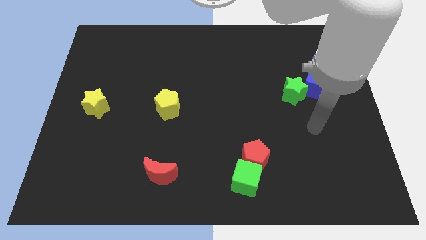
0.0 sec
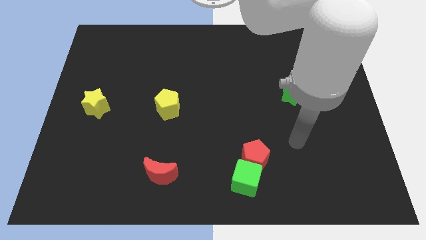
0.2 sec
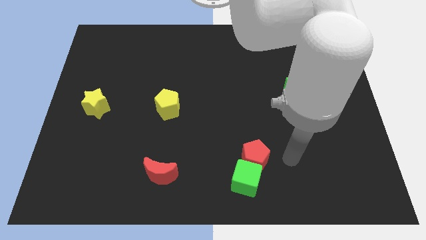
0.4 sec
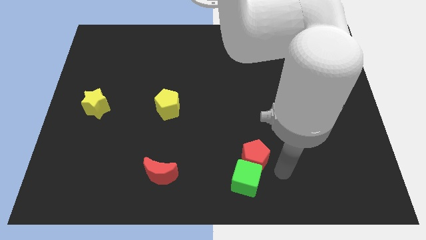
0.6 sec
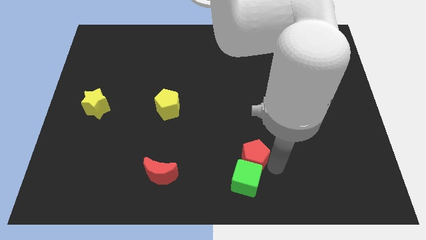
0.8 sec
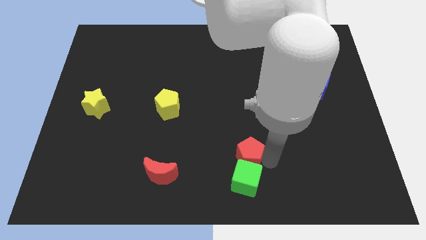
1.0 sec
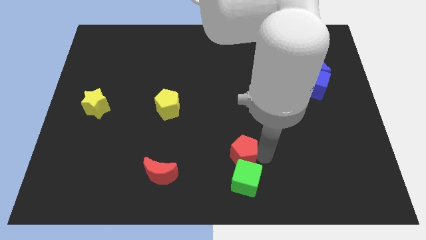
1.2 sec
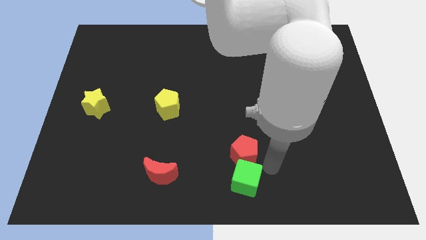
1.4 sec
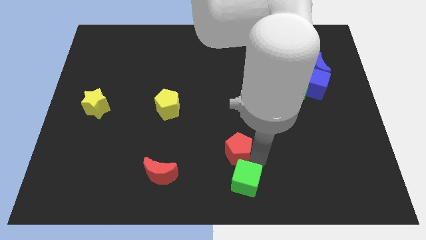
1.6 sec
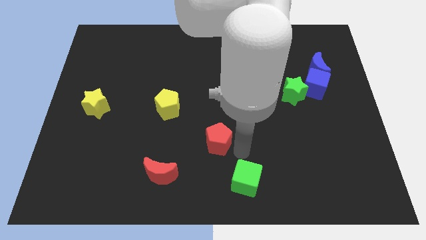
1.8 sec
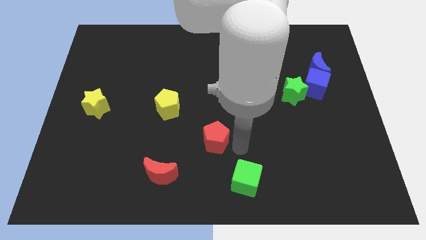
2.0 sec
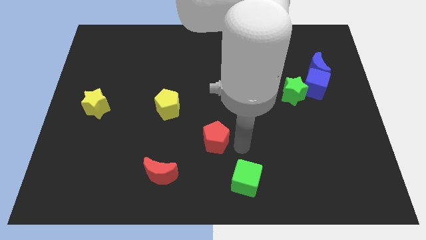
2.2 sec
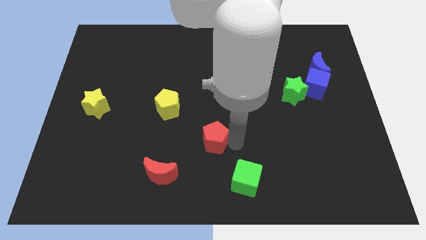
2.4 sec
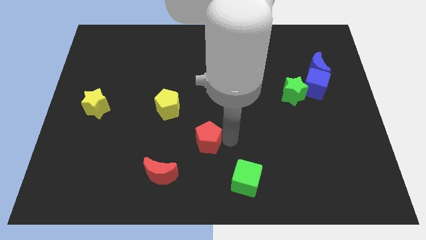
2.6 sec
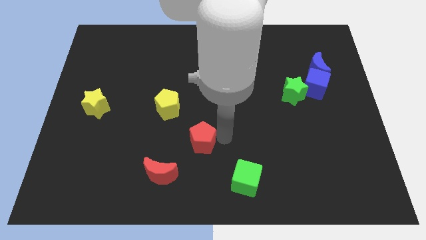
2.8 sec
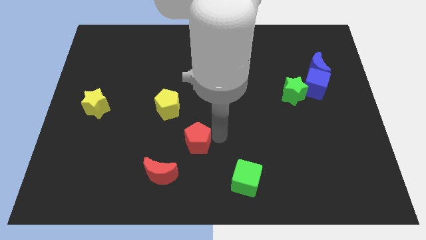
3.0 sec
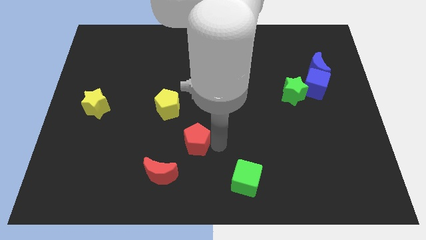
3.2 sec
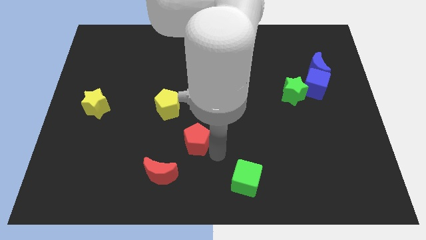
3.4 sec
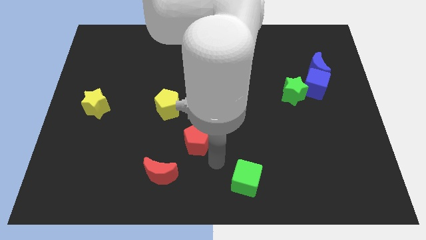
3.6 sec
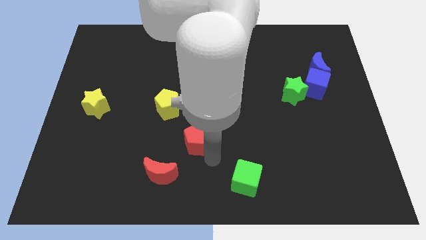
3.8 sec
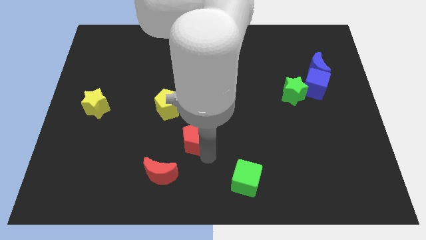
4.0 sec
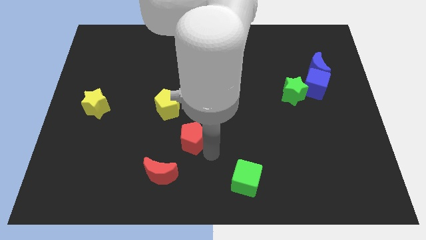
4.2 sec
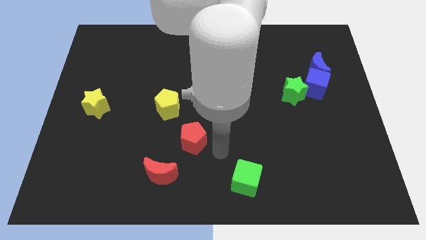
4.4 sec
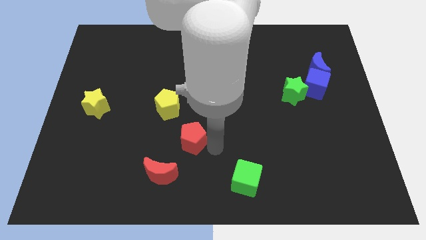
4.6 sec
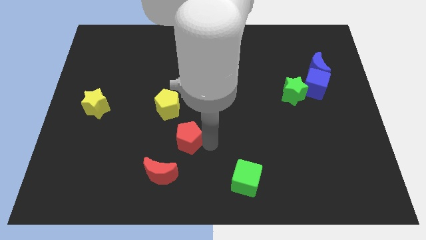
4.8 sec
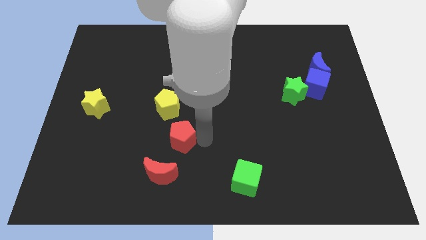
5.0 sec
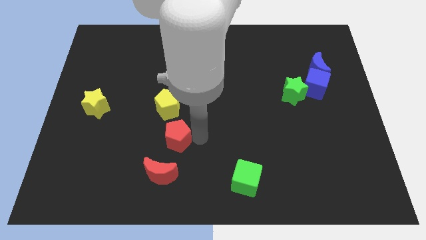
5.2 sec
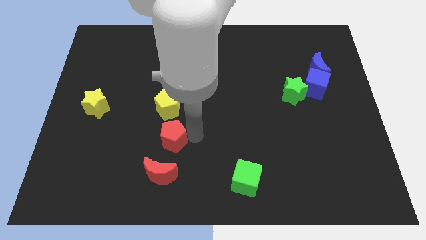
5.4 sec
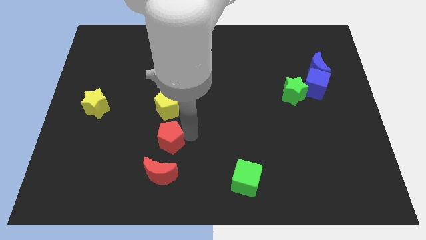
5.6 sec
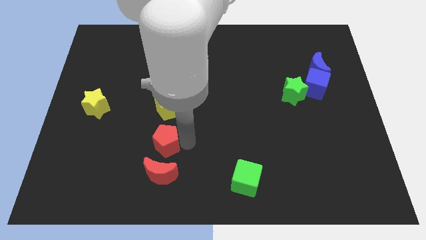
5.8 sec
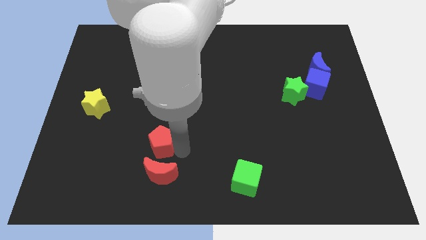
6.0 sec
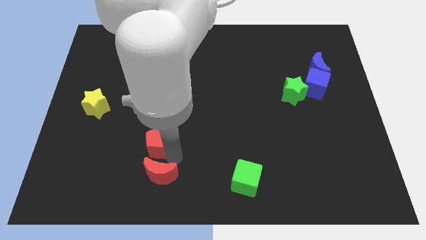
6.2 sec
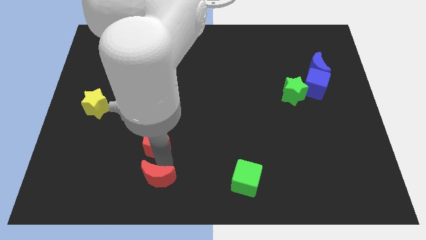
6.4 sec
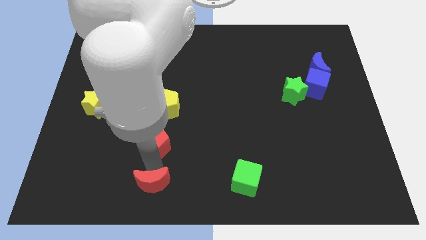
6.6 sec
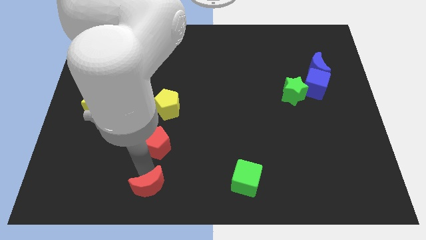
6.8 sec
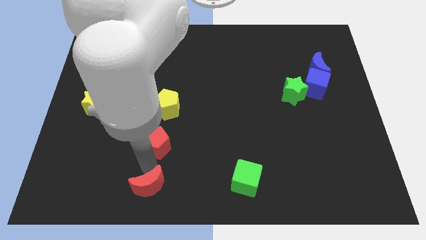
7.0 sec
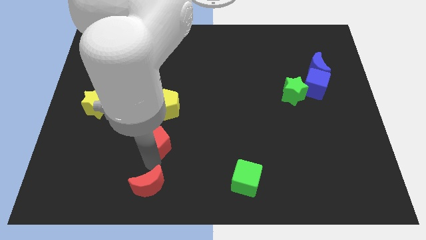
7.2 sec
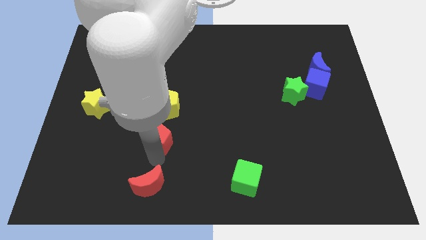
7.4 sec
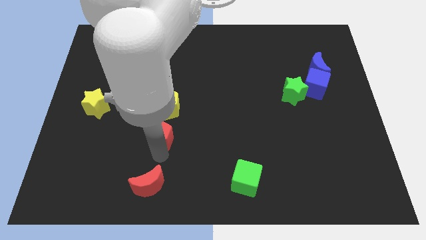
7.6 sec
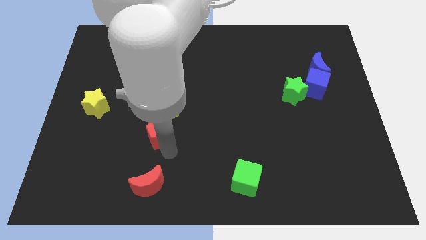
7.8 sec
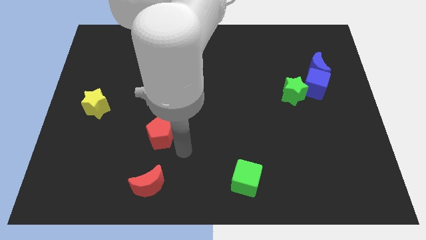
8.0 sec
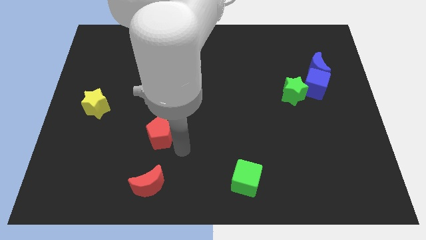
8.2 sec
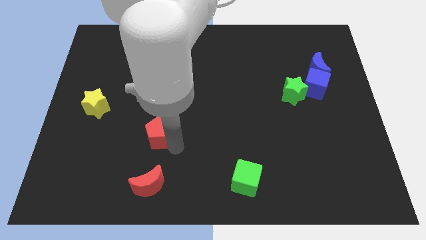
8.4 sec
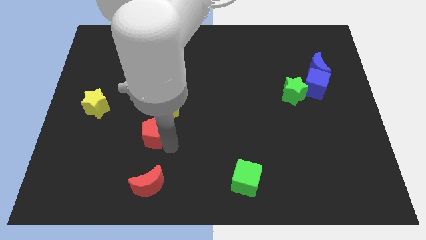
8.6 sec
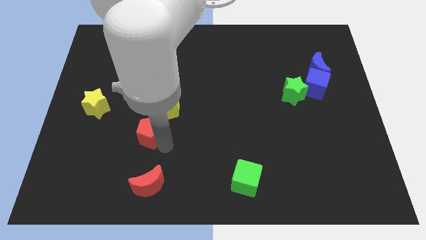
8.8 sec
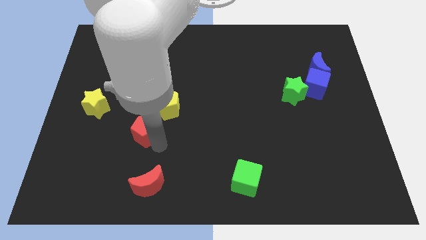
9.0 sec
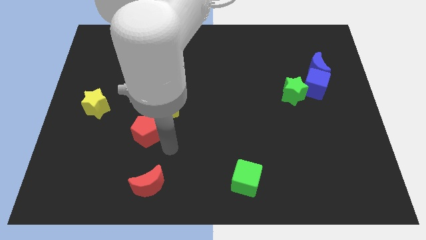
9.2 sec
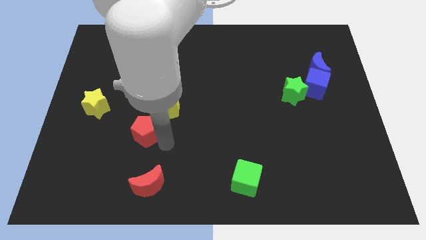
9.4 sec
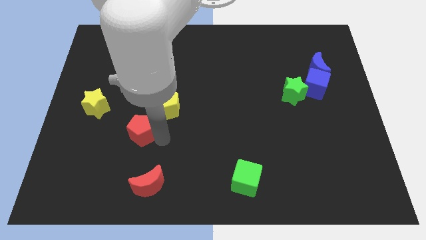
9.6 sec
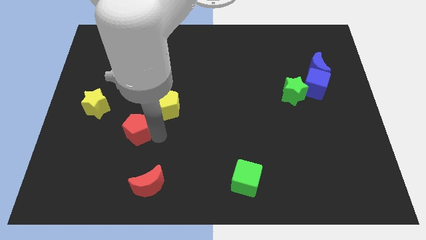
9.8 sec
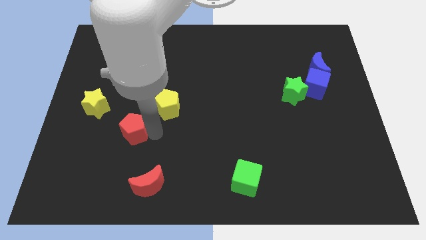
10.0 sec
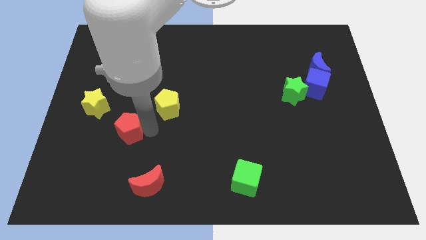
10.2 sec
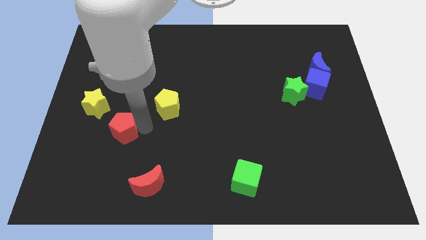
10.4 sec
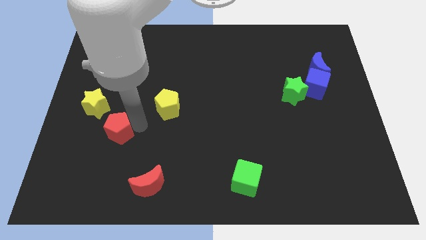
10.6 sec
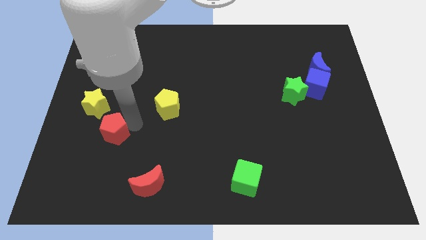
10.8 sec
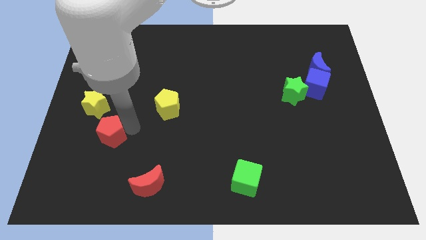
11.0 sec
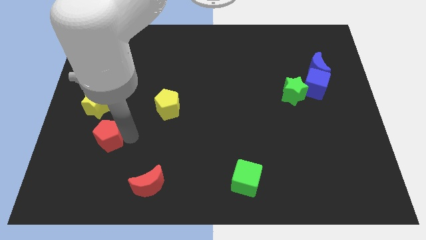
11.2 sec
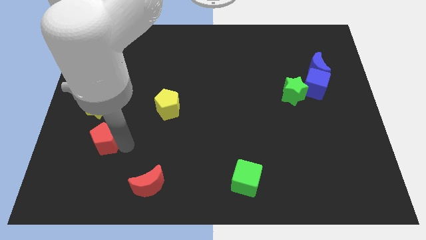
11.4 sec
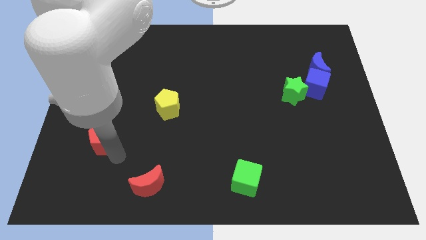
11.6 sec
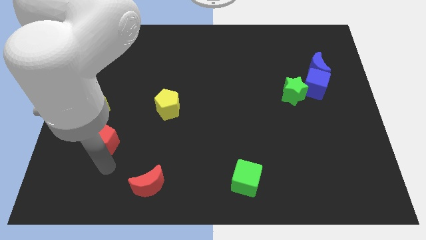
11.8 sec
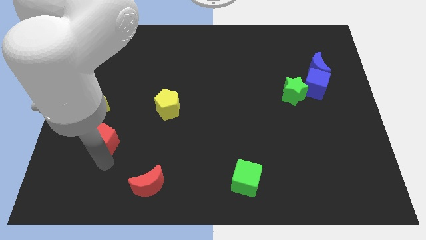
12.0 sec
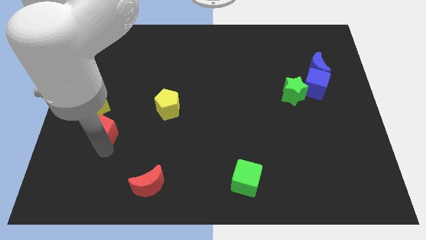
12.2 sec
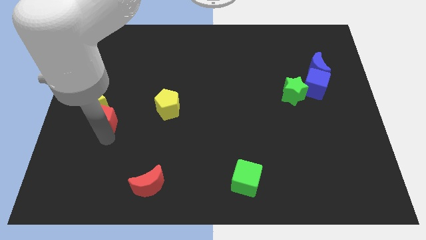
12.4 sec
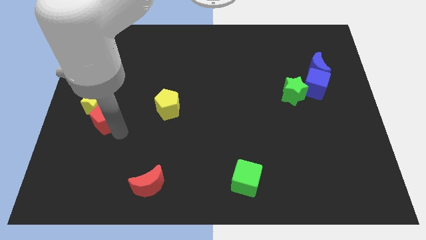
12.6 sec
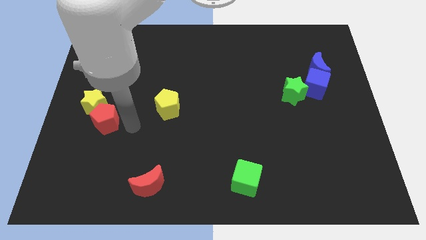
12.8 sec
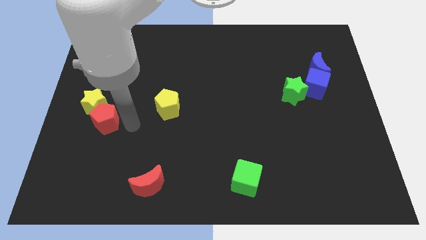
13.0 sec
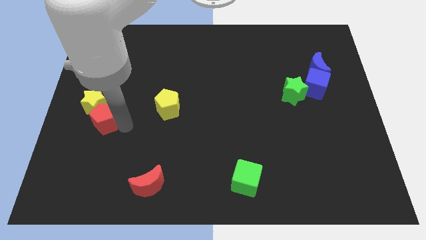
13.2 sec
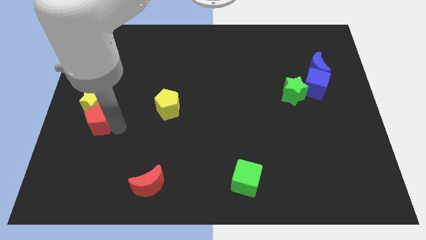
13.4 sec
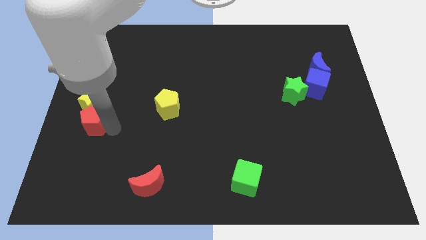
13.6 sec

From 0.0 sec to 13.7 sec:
move the red pentagon to the center left
